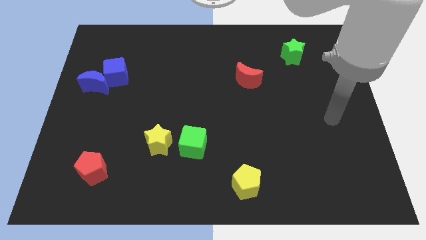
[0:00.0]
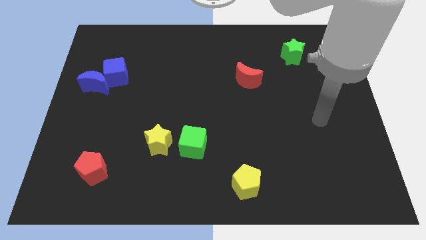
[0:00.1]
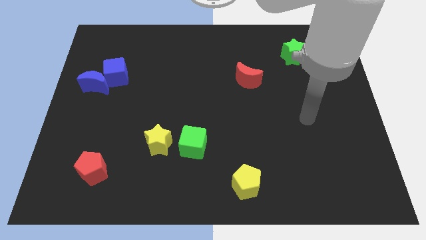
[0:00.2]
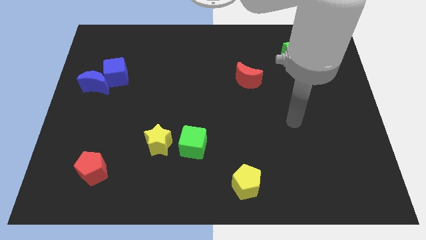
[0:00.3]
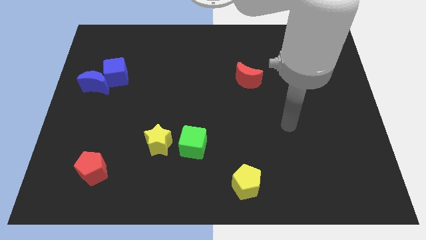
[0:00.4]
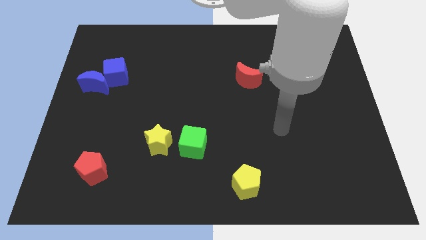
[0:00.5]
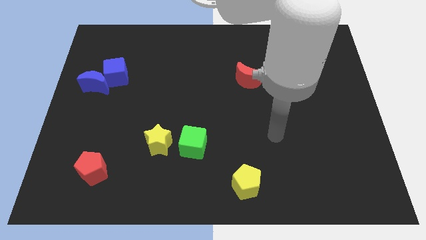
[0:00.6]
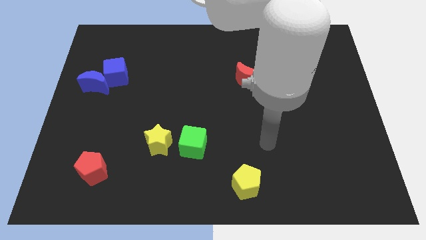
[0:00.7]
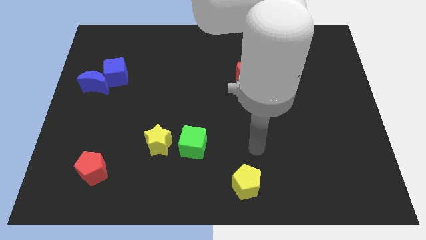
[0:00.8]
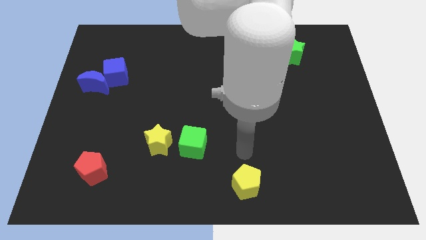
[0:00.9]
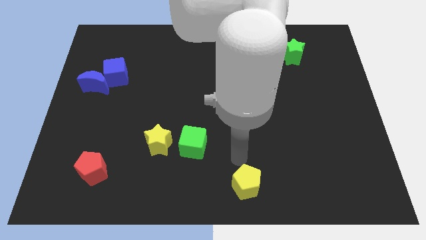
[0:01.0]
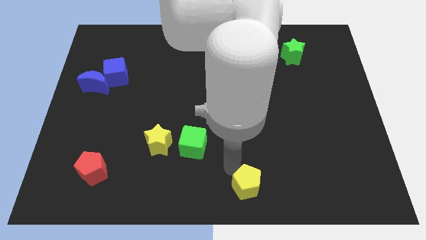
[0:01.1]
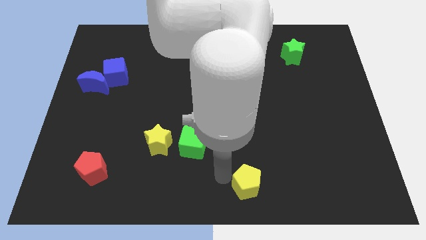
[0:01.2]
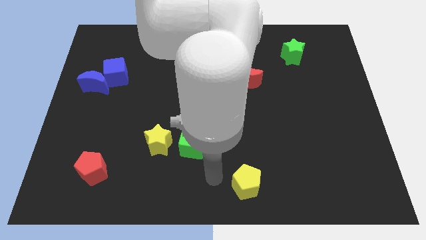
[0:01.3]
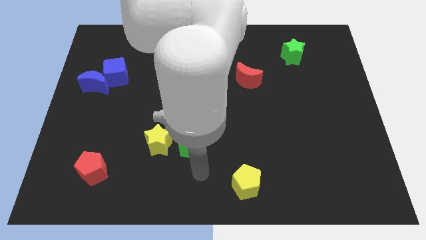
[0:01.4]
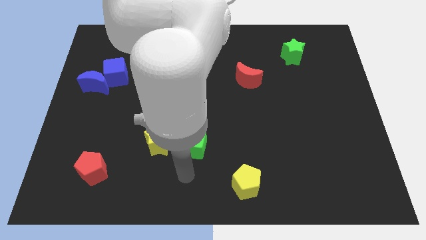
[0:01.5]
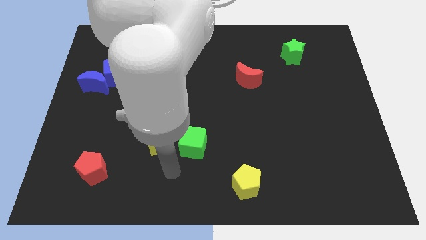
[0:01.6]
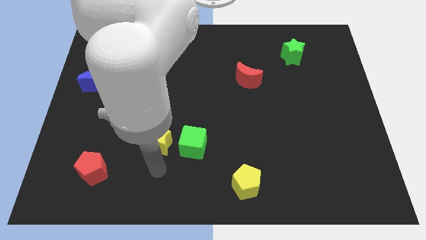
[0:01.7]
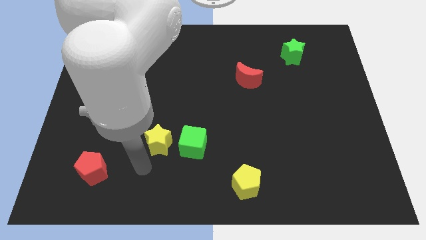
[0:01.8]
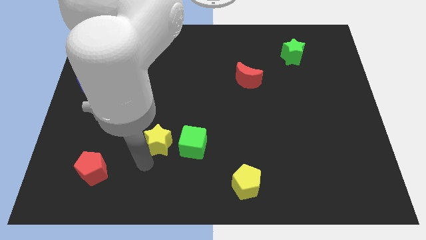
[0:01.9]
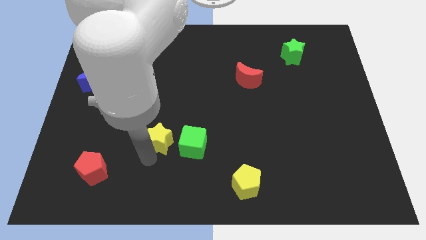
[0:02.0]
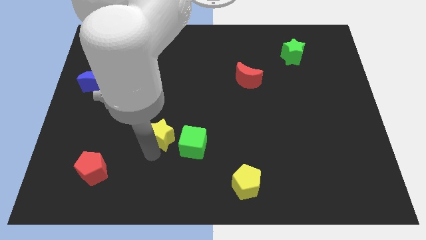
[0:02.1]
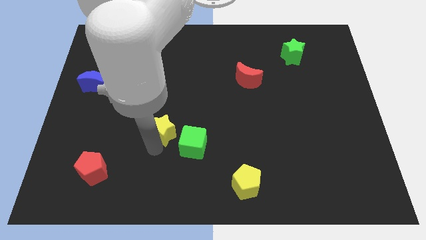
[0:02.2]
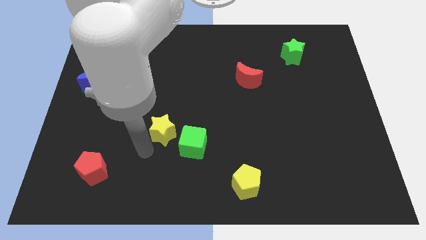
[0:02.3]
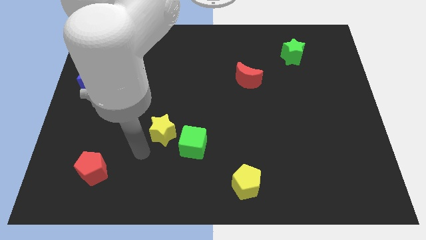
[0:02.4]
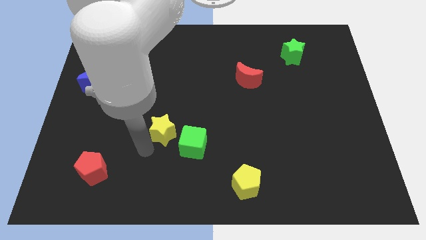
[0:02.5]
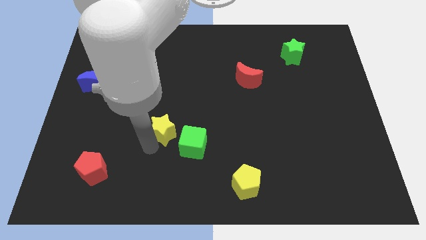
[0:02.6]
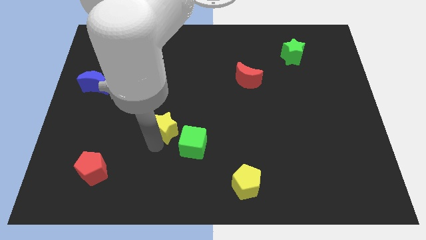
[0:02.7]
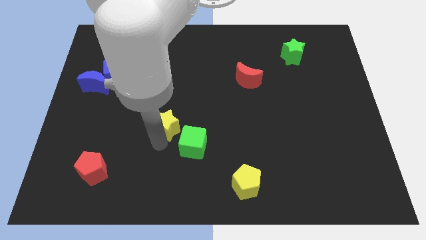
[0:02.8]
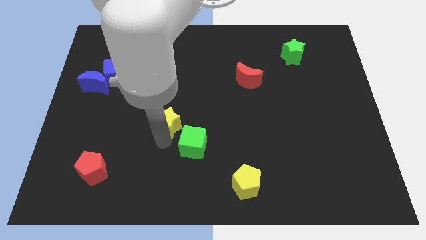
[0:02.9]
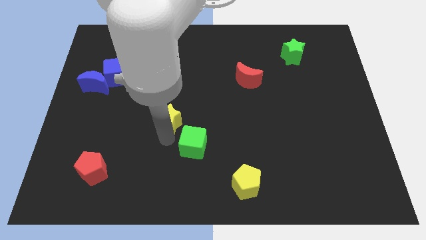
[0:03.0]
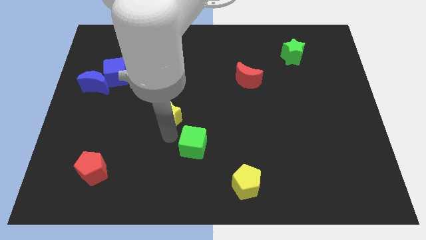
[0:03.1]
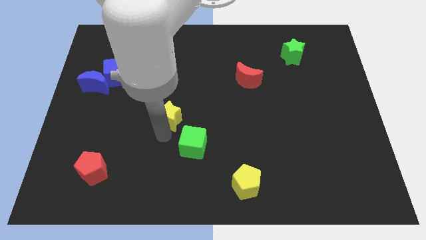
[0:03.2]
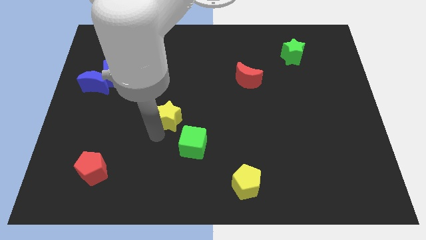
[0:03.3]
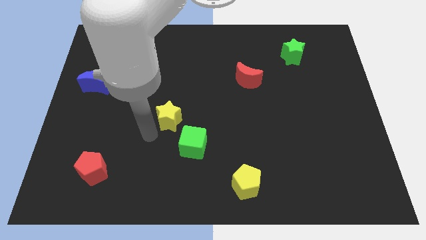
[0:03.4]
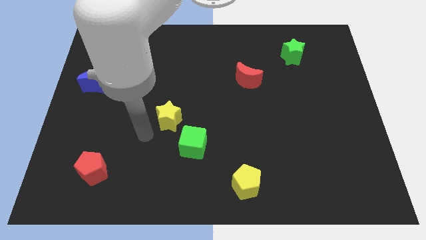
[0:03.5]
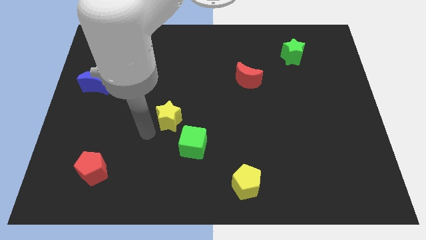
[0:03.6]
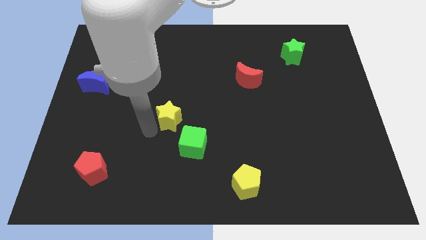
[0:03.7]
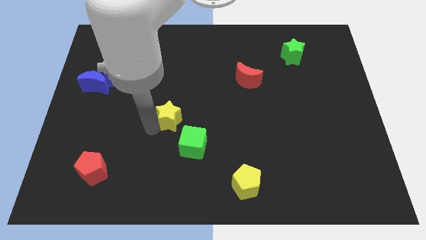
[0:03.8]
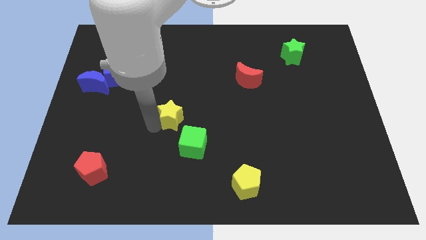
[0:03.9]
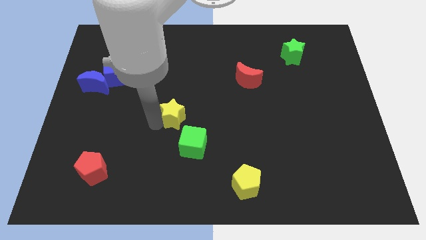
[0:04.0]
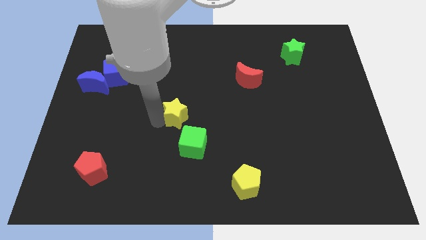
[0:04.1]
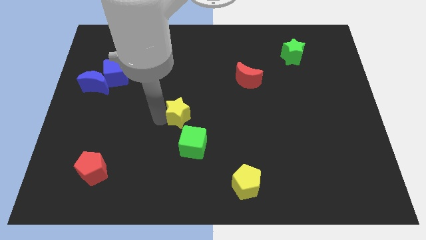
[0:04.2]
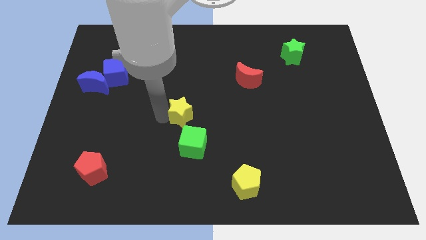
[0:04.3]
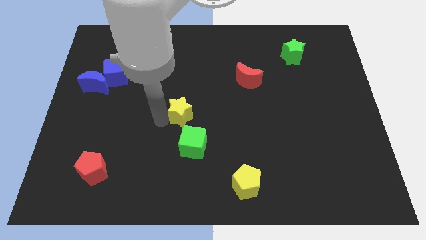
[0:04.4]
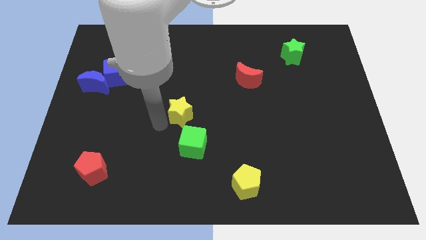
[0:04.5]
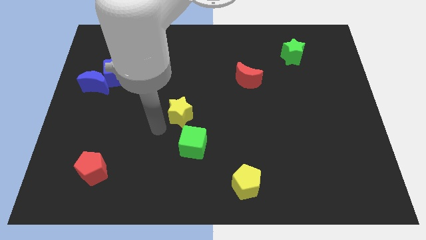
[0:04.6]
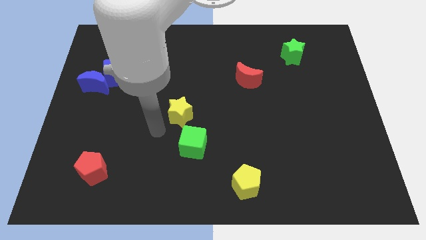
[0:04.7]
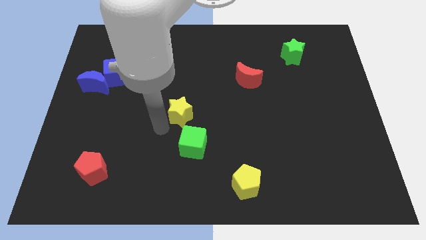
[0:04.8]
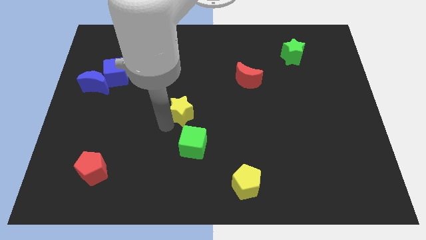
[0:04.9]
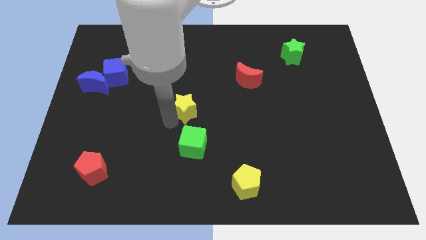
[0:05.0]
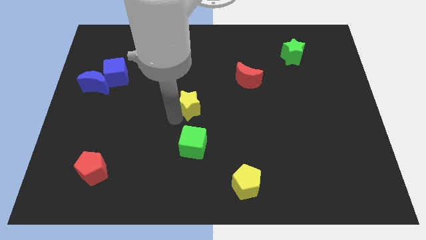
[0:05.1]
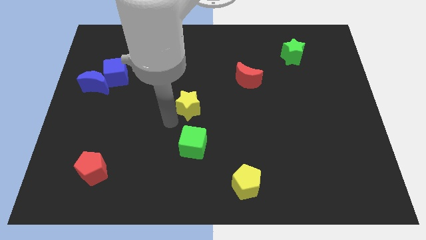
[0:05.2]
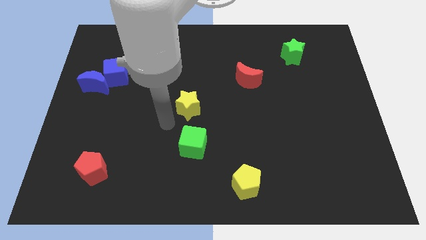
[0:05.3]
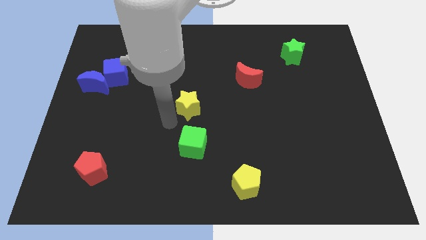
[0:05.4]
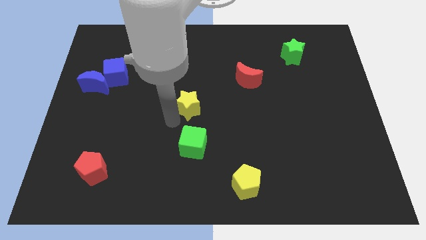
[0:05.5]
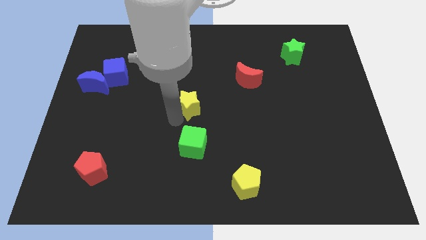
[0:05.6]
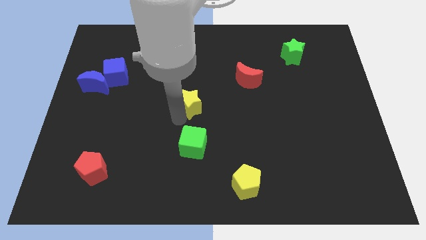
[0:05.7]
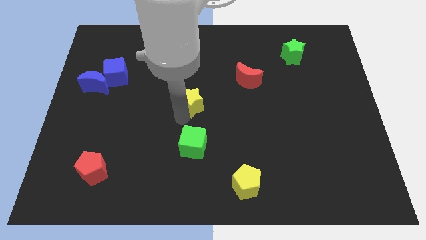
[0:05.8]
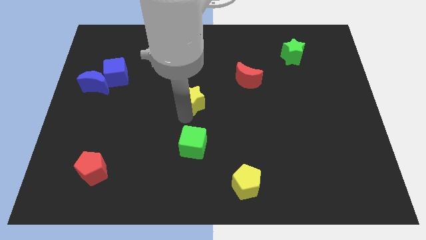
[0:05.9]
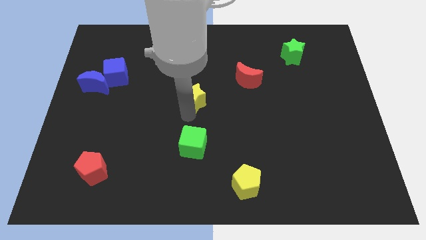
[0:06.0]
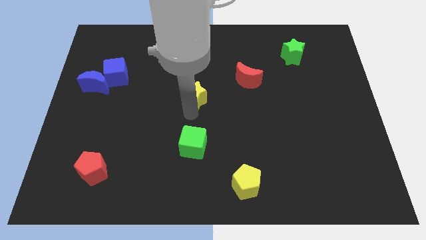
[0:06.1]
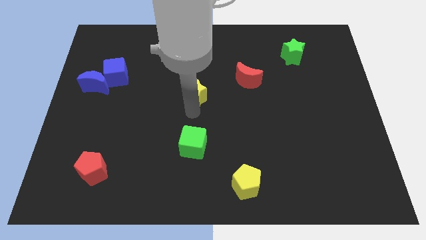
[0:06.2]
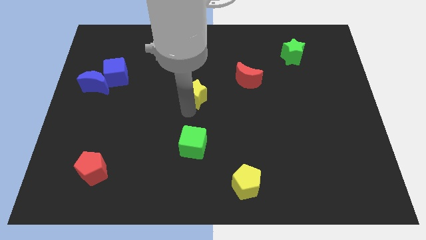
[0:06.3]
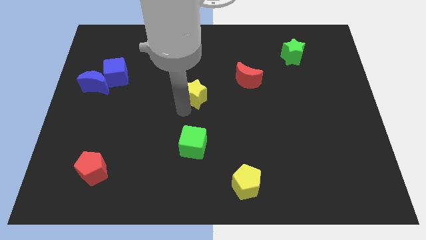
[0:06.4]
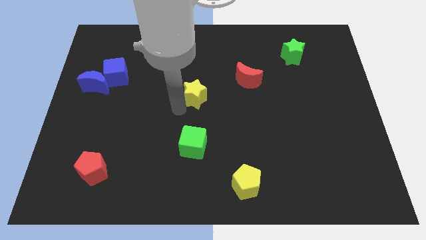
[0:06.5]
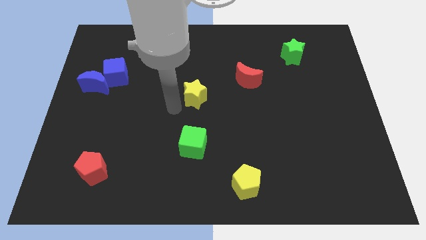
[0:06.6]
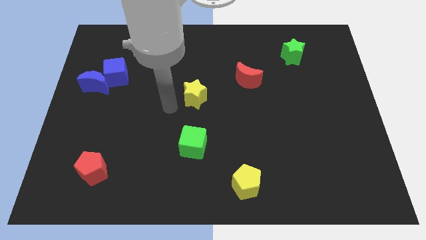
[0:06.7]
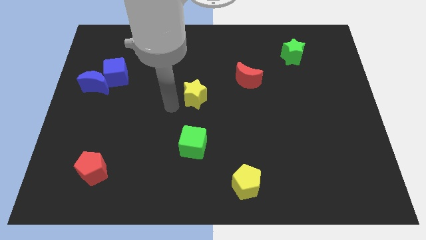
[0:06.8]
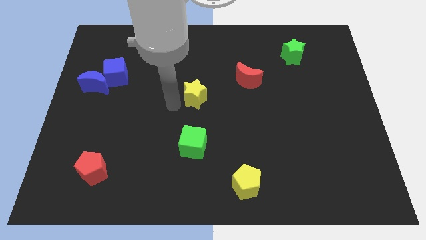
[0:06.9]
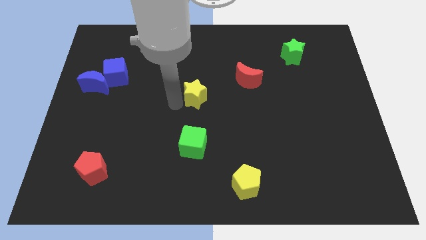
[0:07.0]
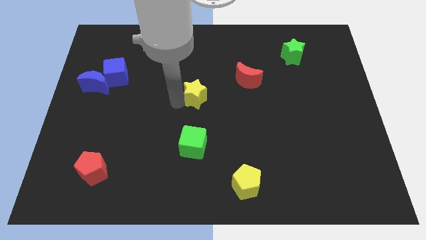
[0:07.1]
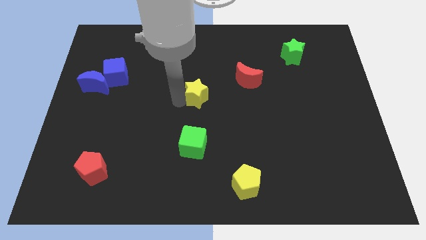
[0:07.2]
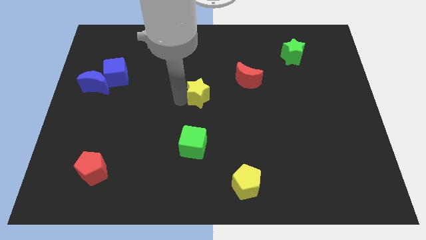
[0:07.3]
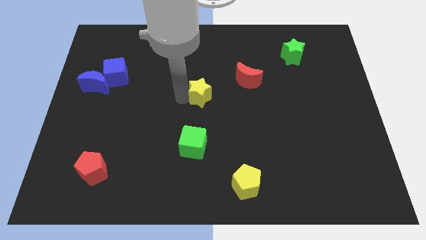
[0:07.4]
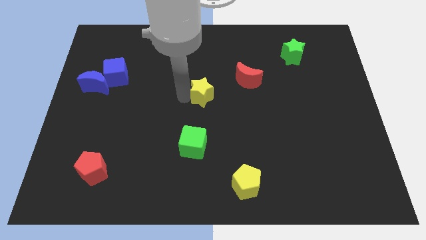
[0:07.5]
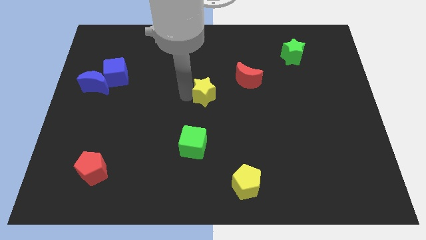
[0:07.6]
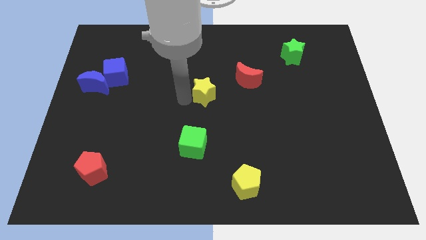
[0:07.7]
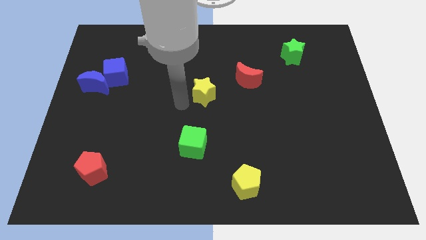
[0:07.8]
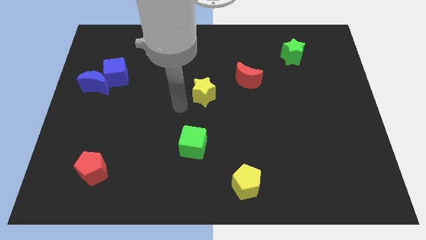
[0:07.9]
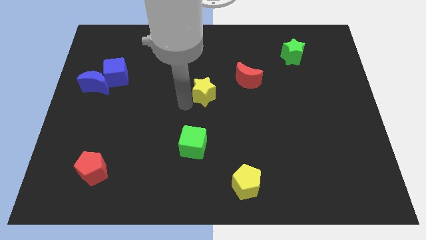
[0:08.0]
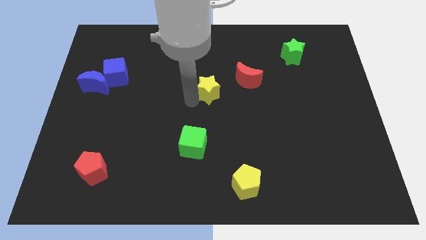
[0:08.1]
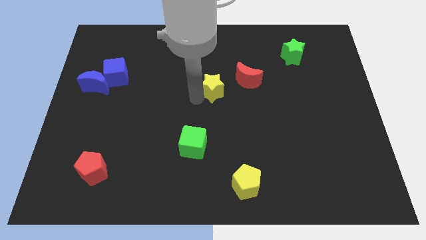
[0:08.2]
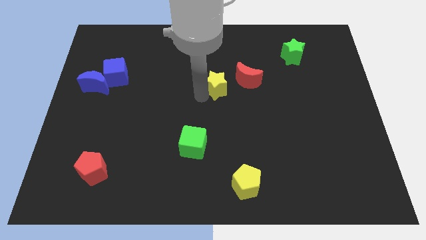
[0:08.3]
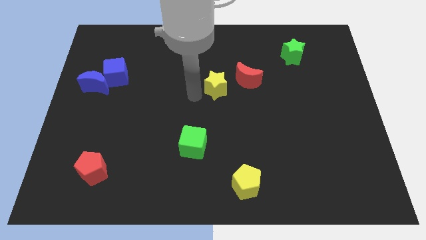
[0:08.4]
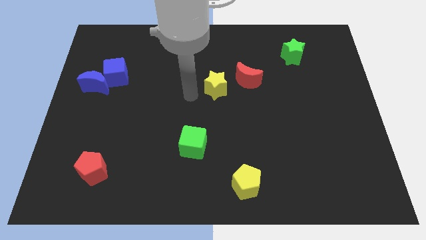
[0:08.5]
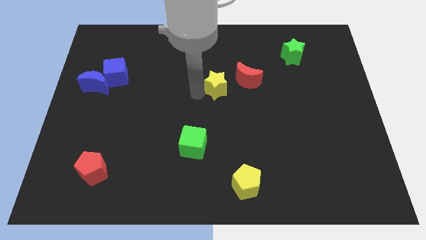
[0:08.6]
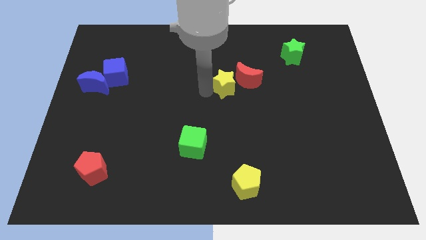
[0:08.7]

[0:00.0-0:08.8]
move the yellow star towards the red moon
